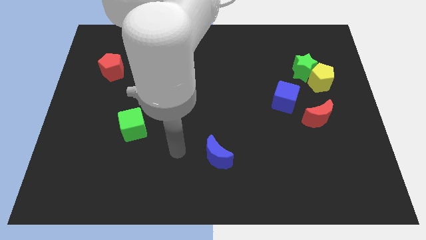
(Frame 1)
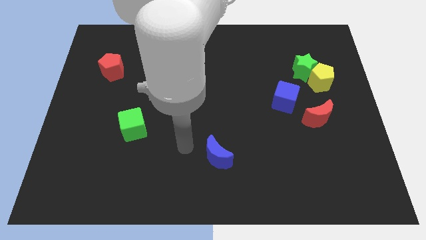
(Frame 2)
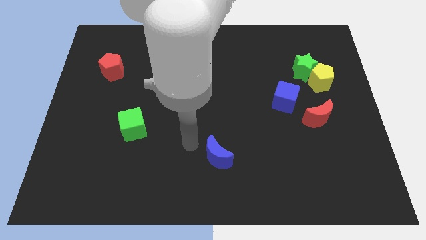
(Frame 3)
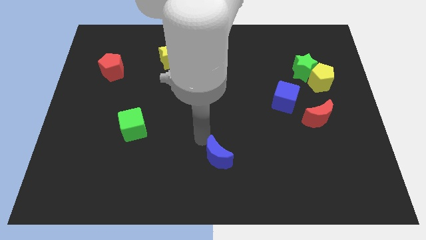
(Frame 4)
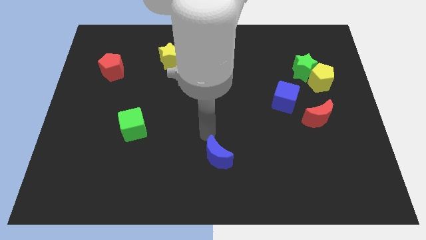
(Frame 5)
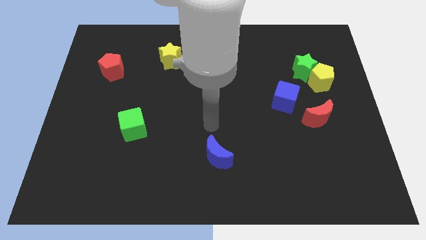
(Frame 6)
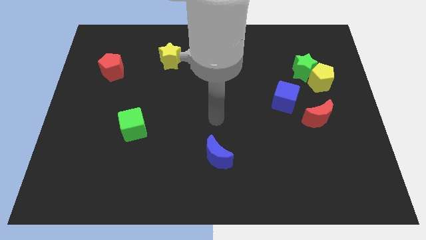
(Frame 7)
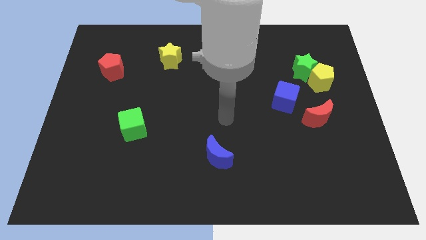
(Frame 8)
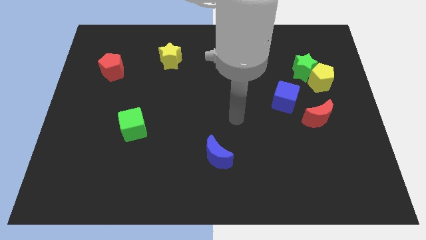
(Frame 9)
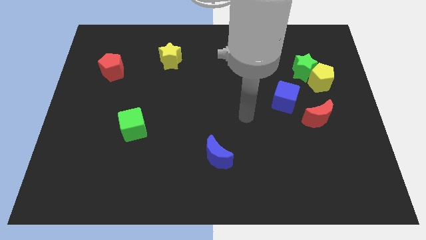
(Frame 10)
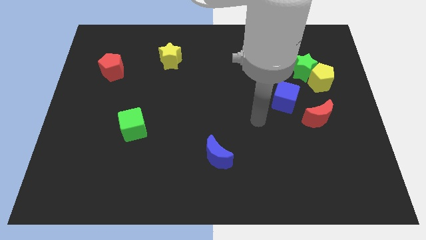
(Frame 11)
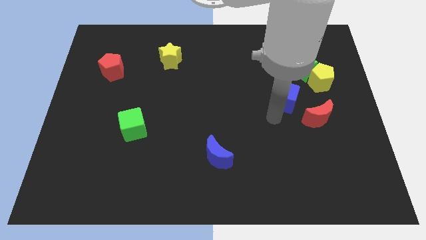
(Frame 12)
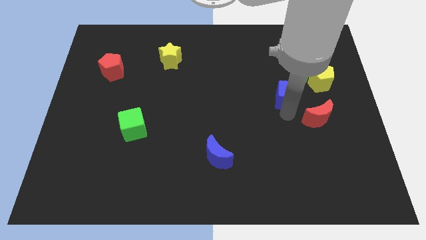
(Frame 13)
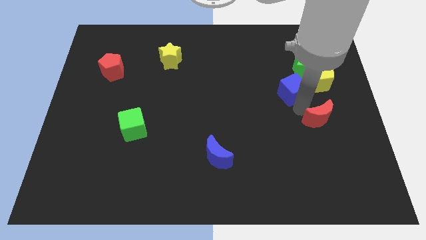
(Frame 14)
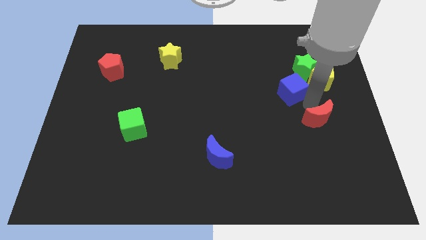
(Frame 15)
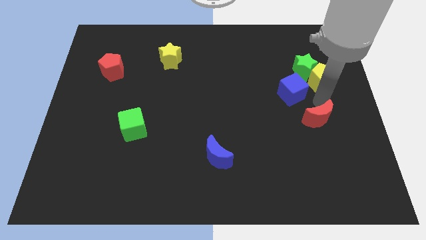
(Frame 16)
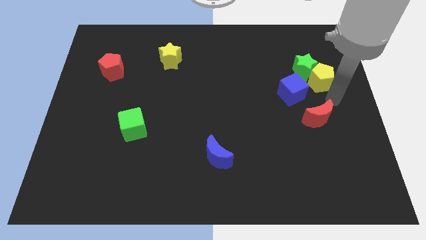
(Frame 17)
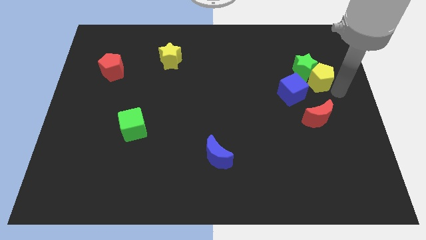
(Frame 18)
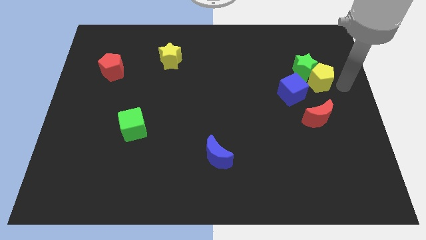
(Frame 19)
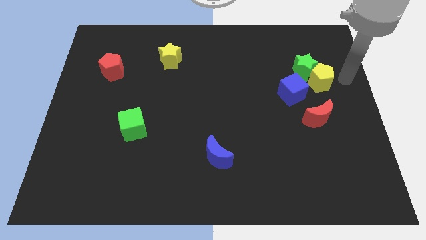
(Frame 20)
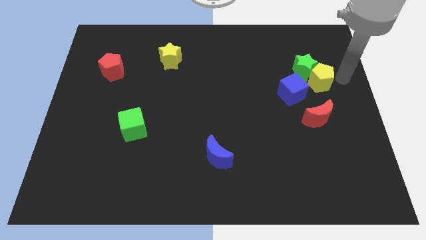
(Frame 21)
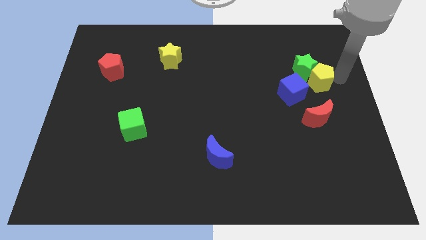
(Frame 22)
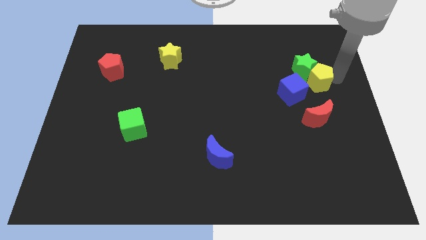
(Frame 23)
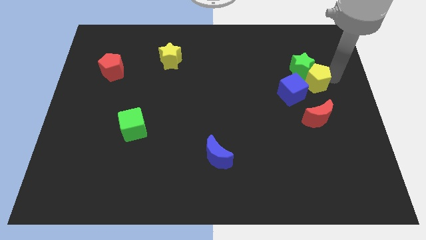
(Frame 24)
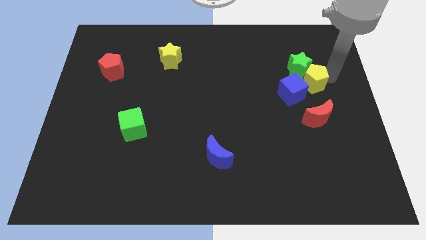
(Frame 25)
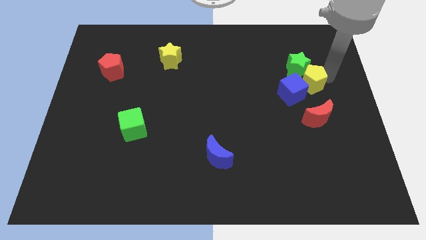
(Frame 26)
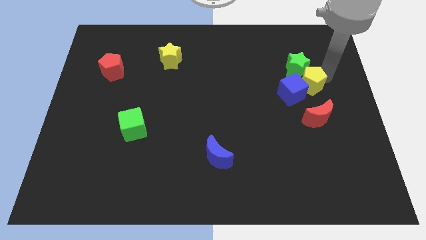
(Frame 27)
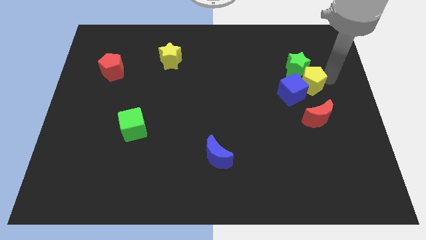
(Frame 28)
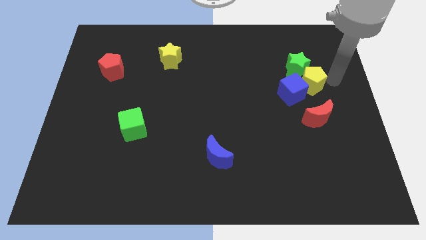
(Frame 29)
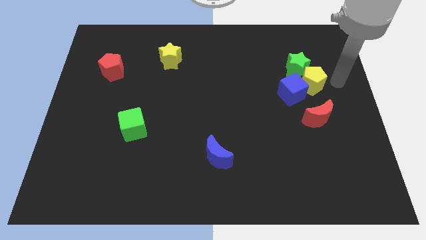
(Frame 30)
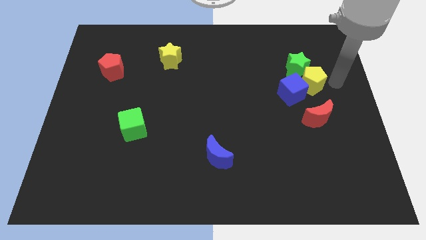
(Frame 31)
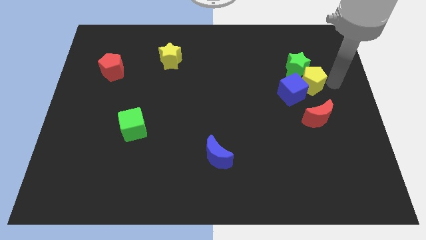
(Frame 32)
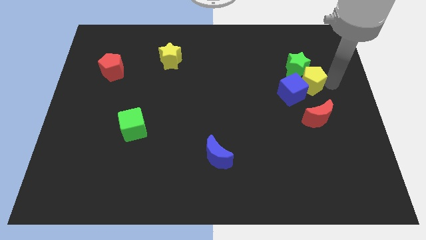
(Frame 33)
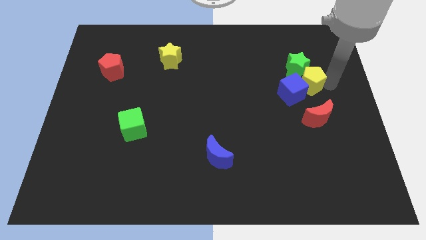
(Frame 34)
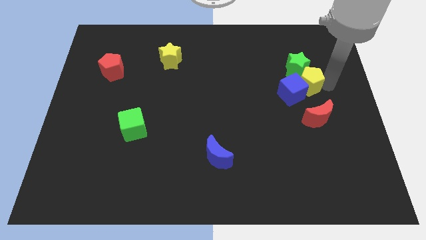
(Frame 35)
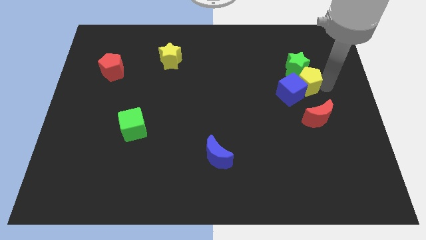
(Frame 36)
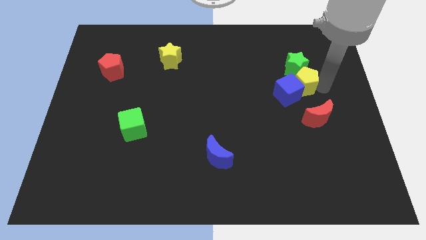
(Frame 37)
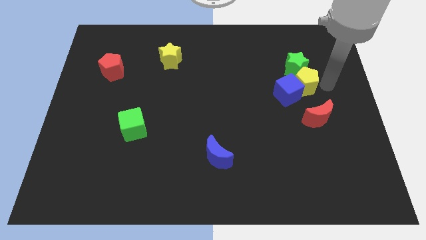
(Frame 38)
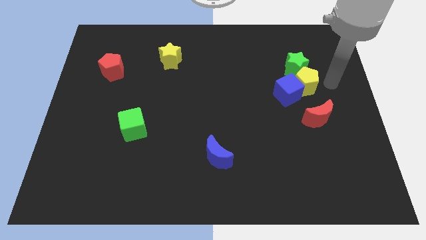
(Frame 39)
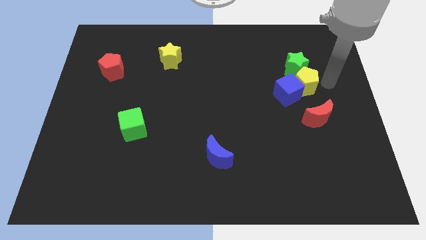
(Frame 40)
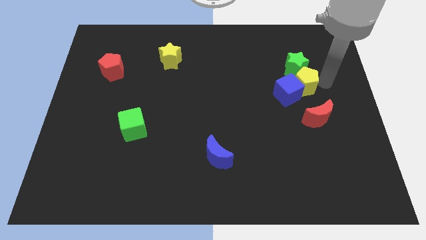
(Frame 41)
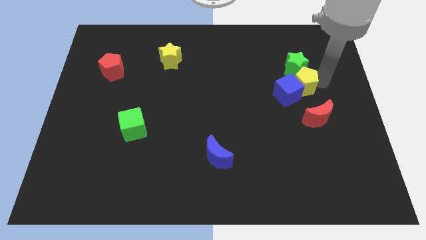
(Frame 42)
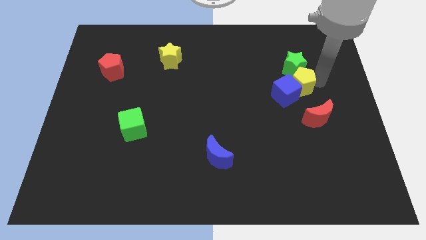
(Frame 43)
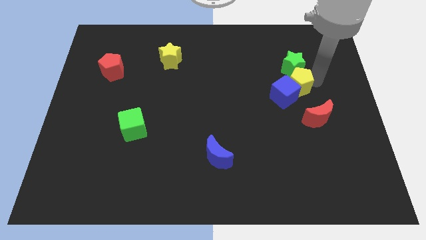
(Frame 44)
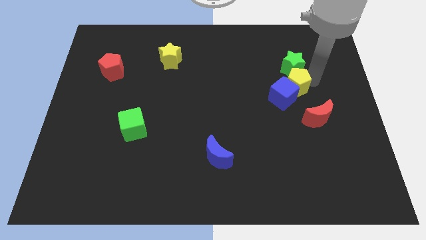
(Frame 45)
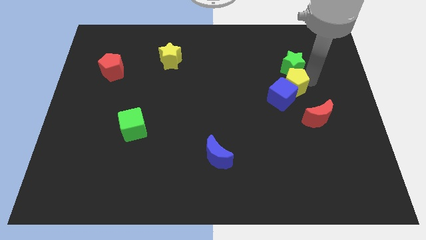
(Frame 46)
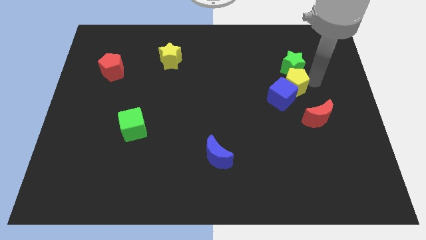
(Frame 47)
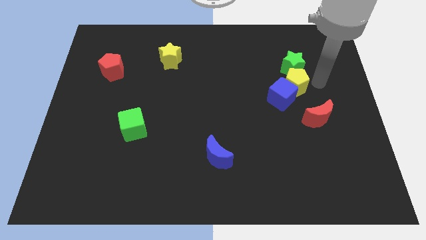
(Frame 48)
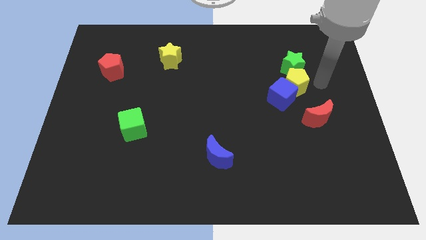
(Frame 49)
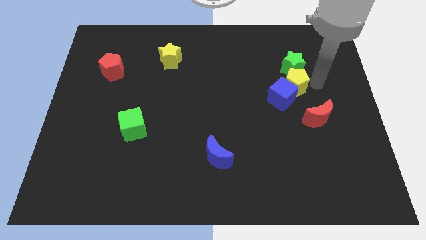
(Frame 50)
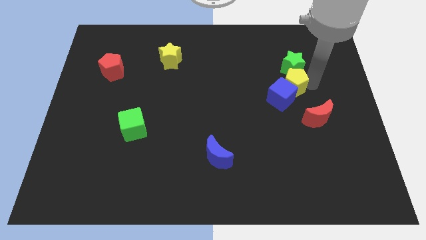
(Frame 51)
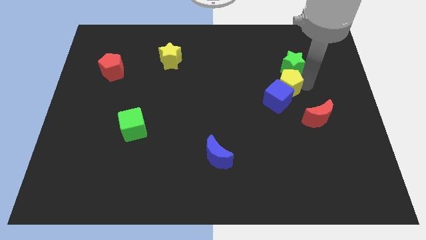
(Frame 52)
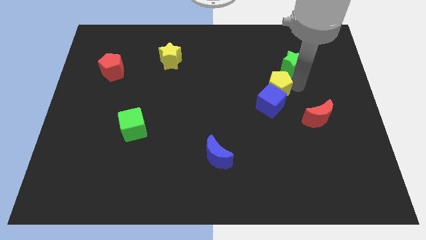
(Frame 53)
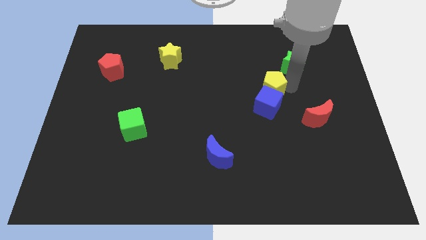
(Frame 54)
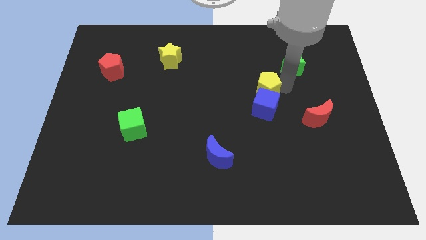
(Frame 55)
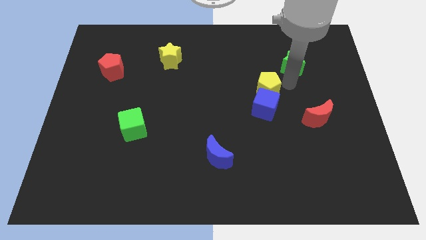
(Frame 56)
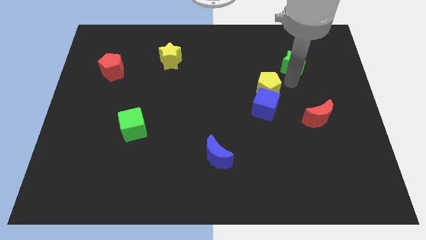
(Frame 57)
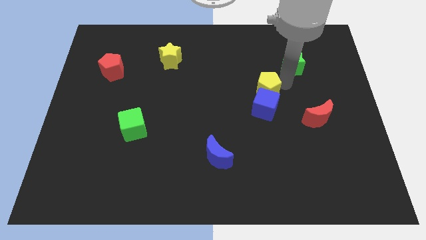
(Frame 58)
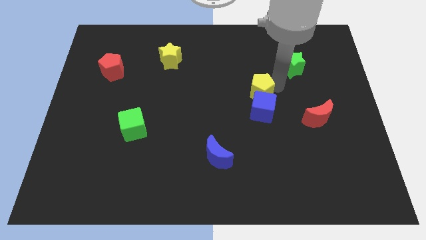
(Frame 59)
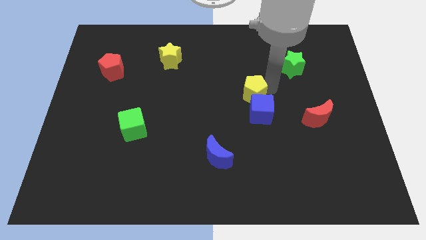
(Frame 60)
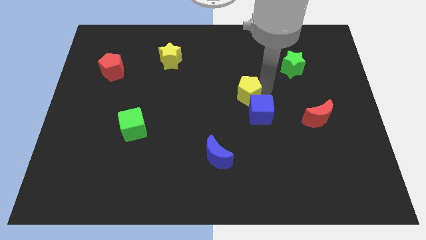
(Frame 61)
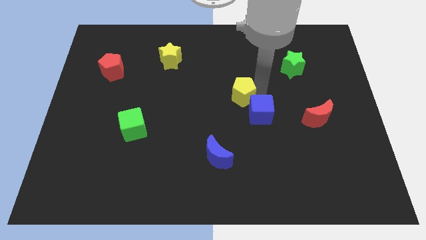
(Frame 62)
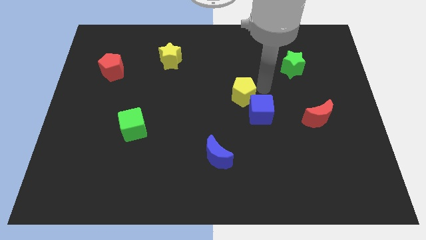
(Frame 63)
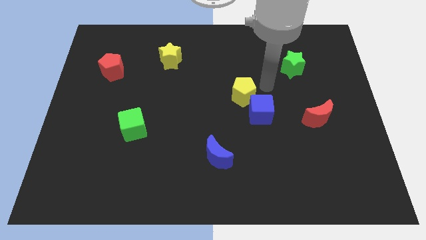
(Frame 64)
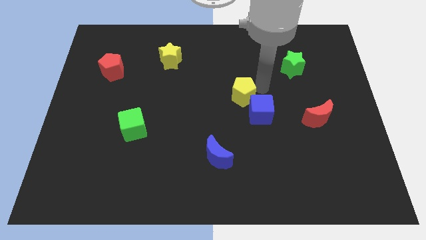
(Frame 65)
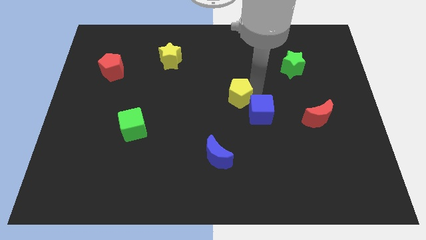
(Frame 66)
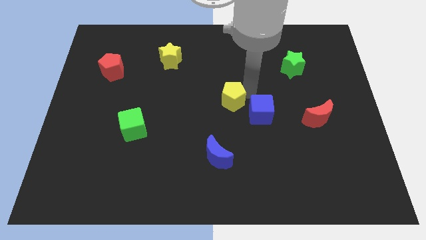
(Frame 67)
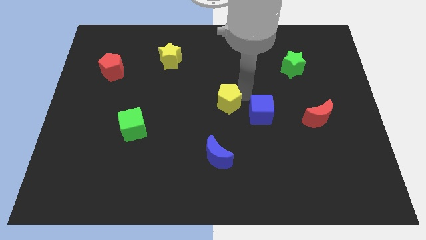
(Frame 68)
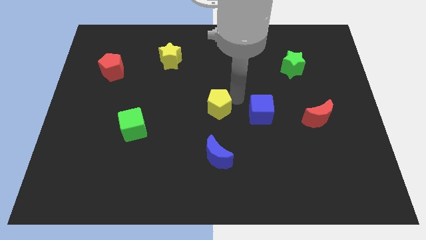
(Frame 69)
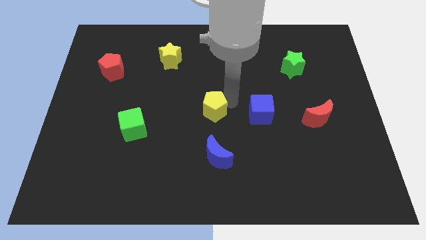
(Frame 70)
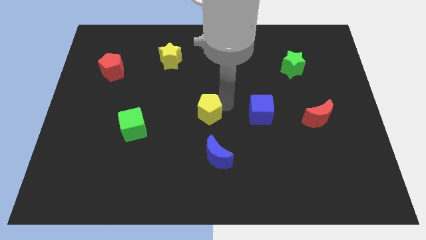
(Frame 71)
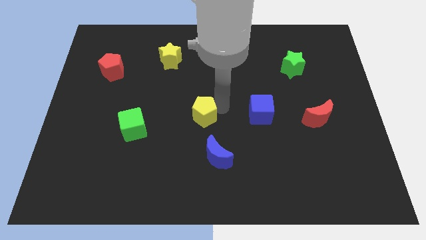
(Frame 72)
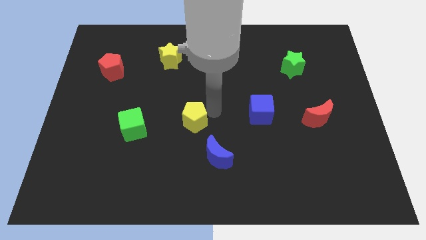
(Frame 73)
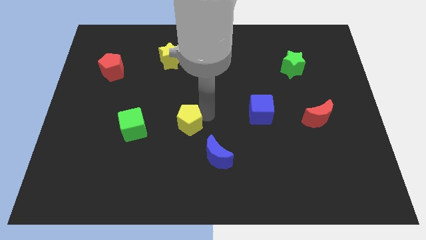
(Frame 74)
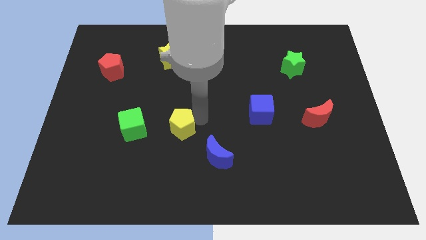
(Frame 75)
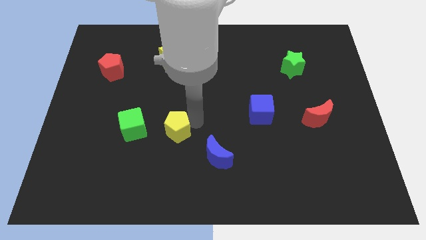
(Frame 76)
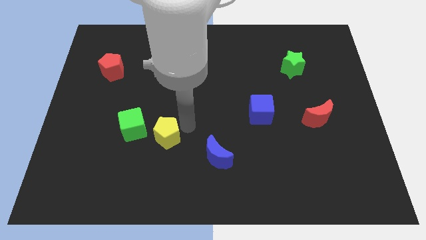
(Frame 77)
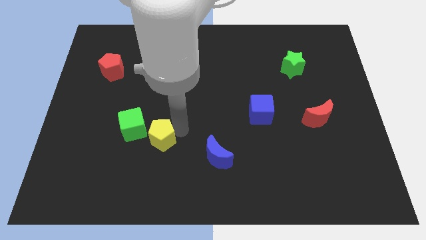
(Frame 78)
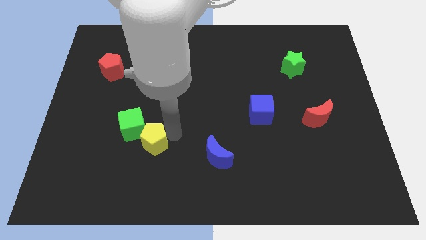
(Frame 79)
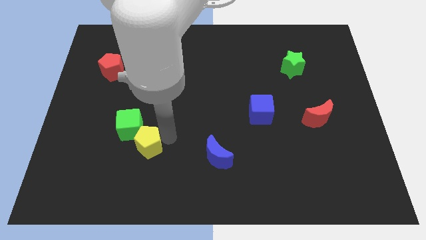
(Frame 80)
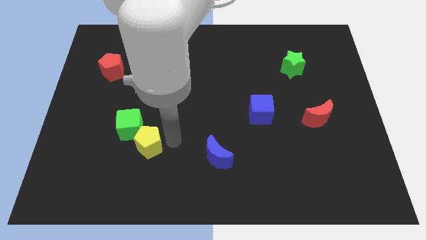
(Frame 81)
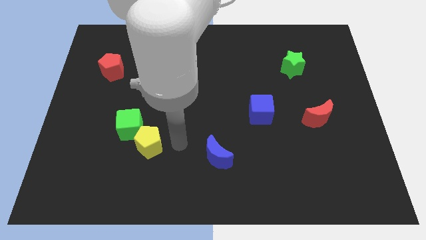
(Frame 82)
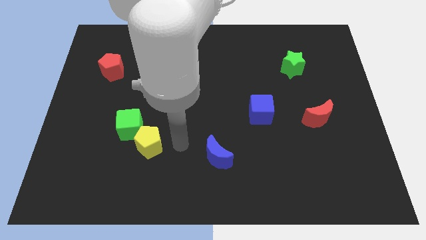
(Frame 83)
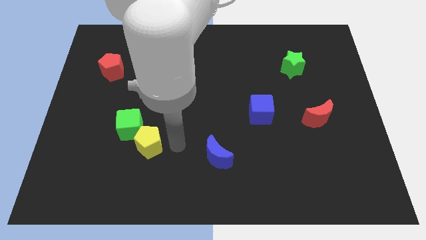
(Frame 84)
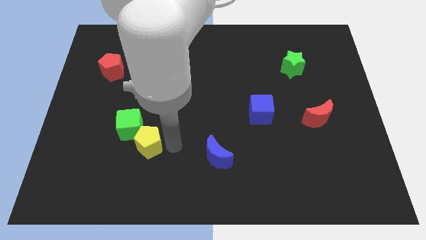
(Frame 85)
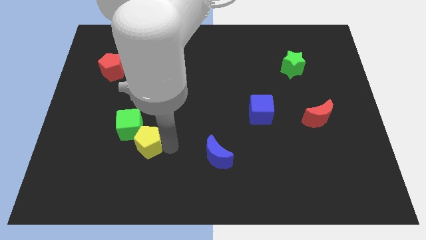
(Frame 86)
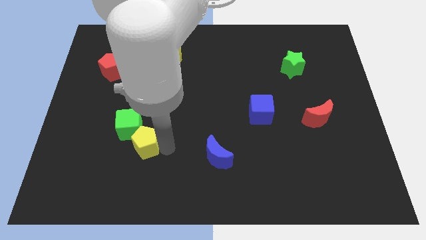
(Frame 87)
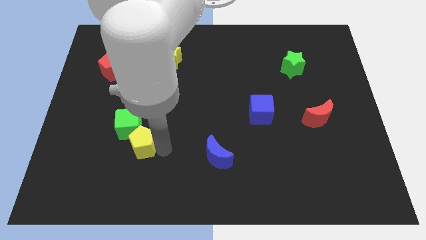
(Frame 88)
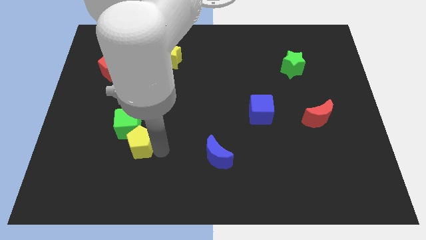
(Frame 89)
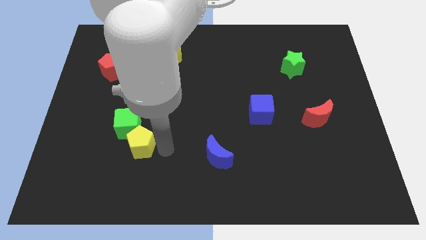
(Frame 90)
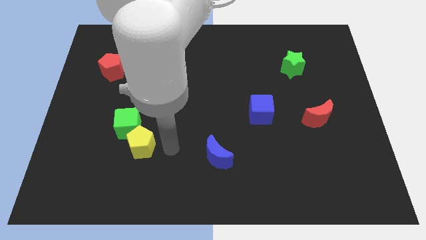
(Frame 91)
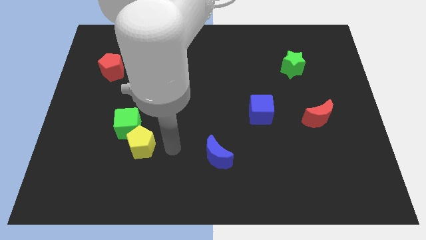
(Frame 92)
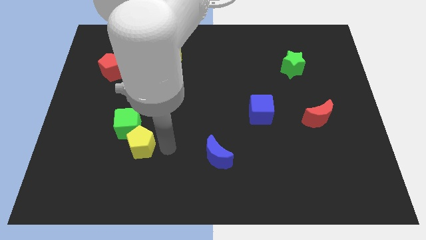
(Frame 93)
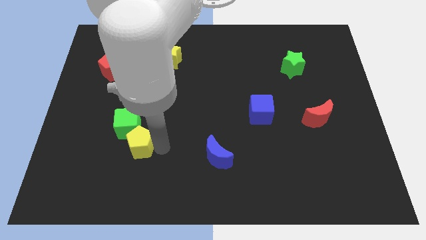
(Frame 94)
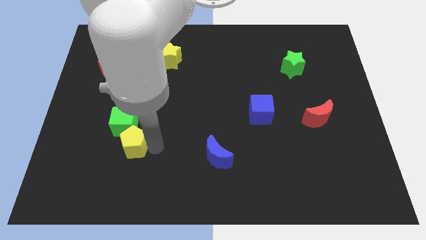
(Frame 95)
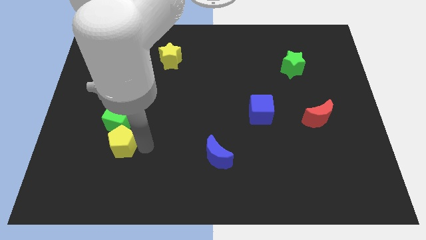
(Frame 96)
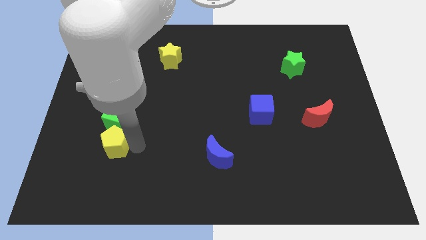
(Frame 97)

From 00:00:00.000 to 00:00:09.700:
put the yellow pentagon to the bottom left side of the green cube
